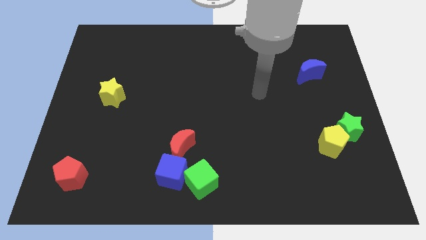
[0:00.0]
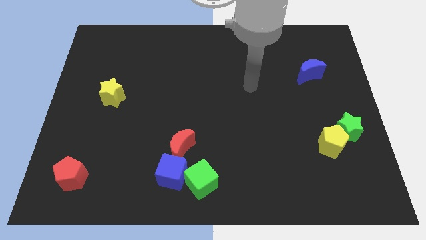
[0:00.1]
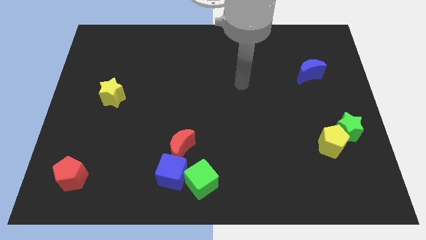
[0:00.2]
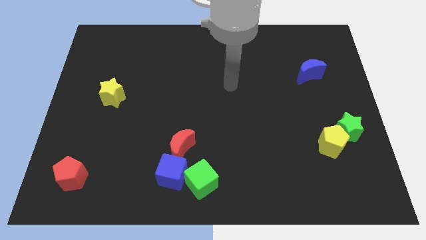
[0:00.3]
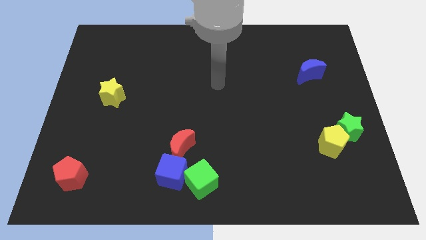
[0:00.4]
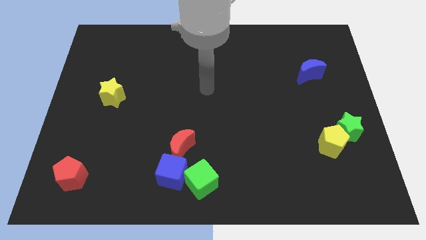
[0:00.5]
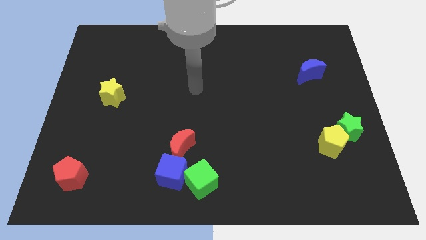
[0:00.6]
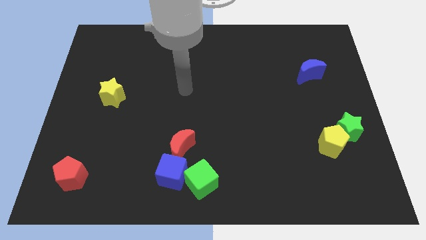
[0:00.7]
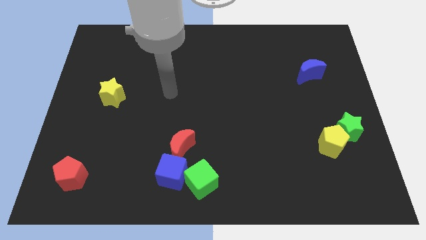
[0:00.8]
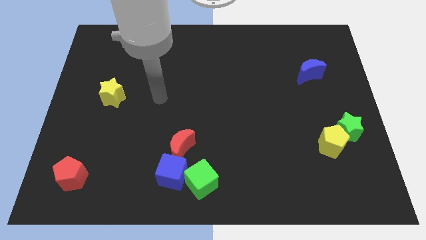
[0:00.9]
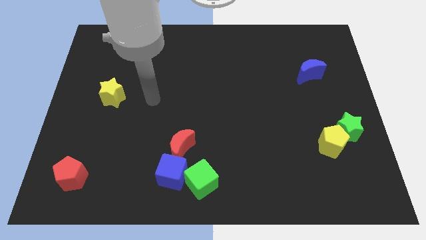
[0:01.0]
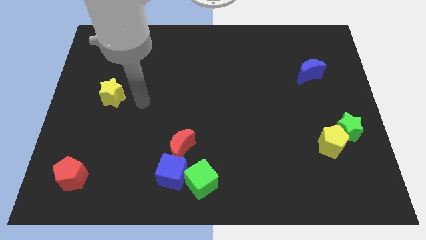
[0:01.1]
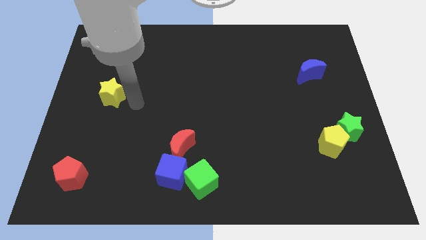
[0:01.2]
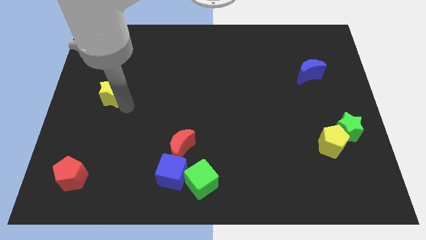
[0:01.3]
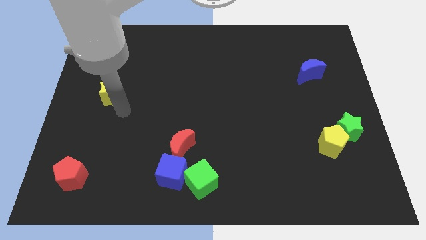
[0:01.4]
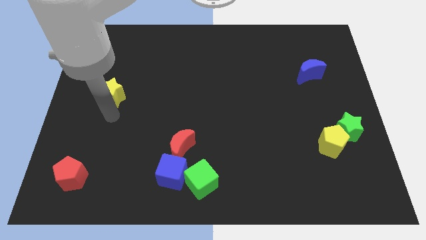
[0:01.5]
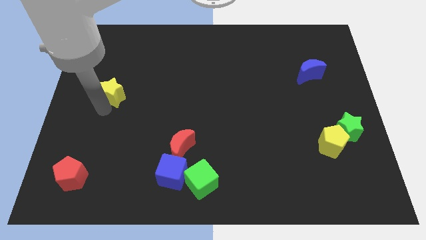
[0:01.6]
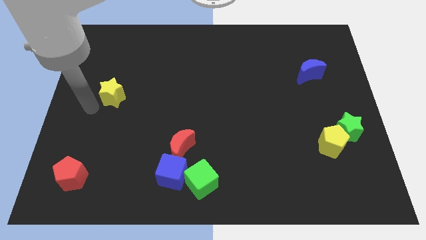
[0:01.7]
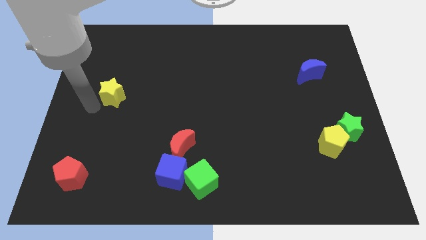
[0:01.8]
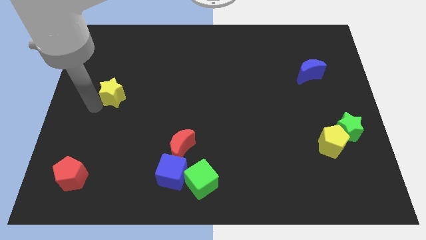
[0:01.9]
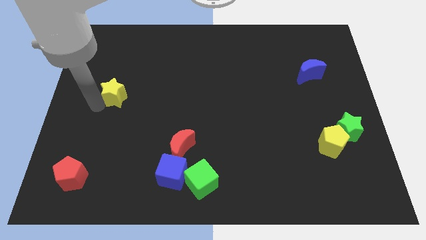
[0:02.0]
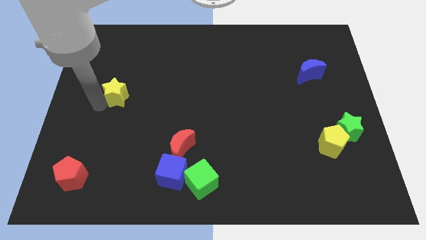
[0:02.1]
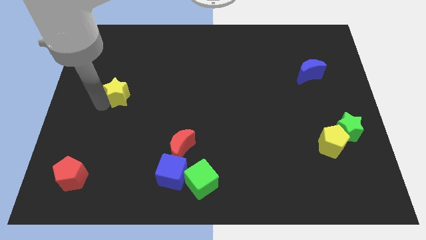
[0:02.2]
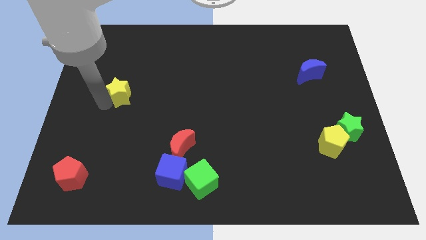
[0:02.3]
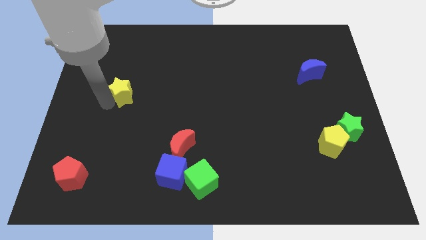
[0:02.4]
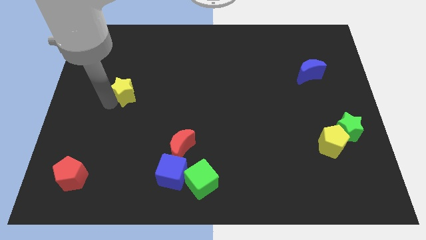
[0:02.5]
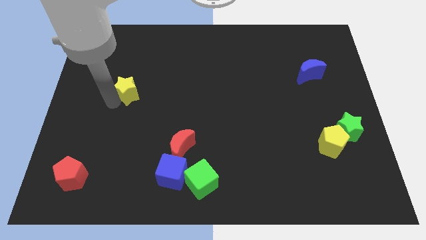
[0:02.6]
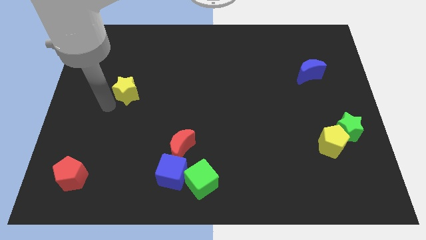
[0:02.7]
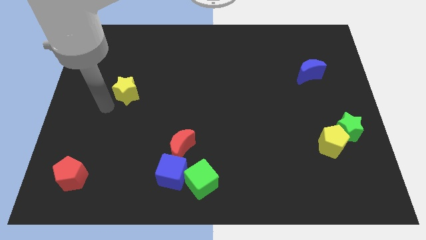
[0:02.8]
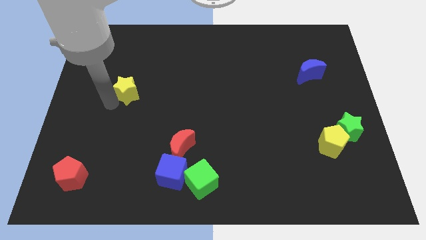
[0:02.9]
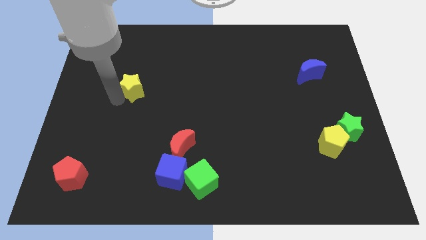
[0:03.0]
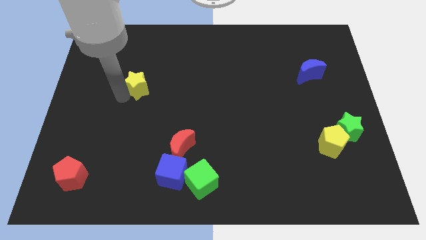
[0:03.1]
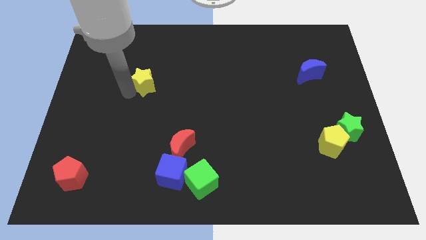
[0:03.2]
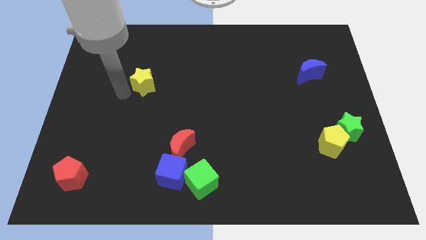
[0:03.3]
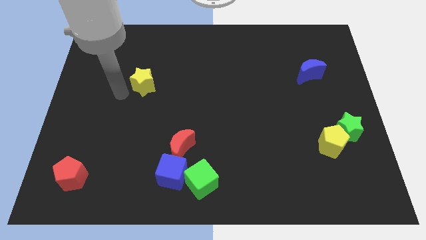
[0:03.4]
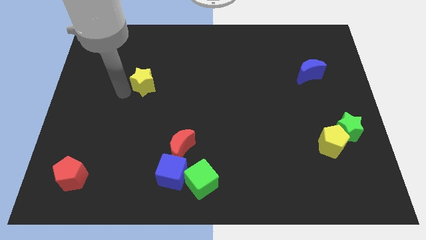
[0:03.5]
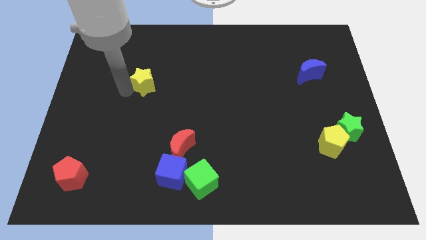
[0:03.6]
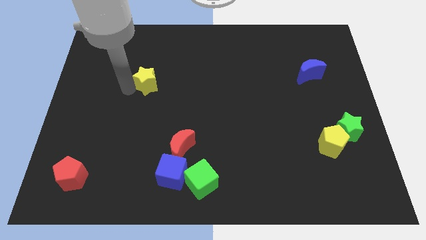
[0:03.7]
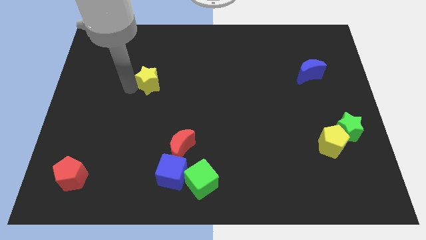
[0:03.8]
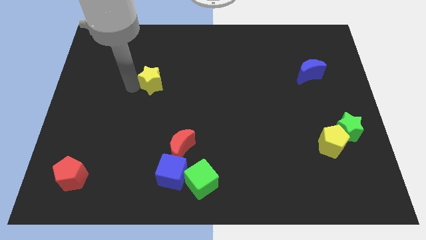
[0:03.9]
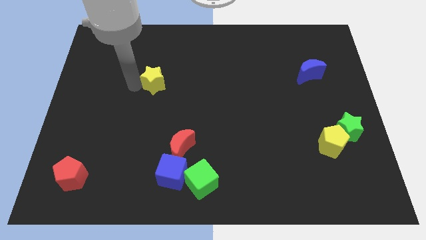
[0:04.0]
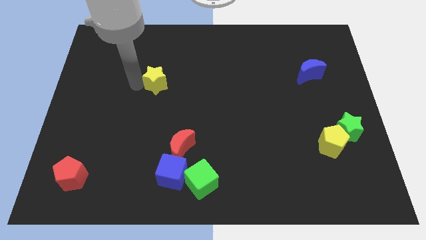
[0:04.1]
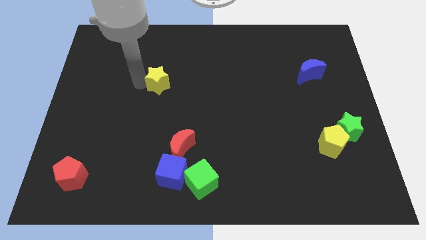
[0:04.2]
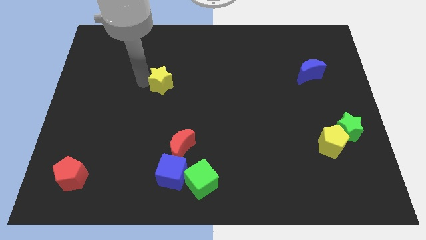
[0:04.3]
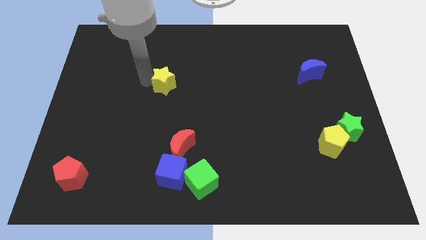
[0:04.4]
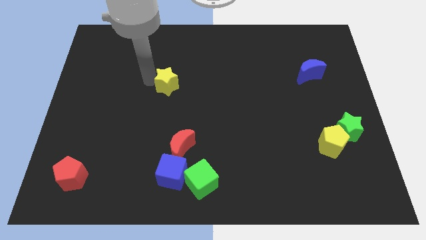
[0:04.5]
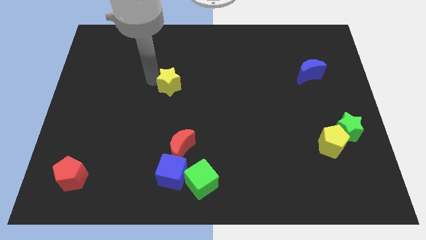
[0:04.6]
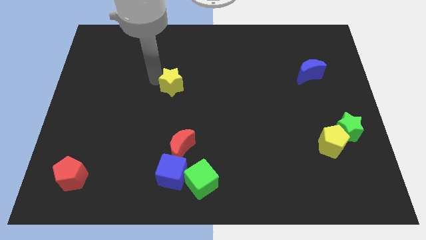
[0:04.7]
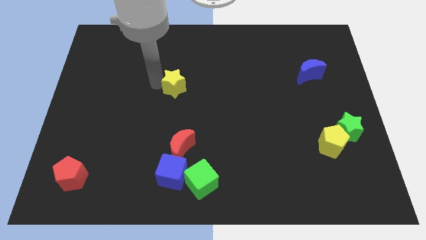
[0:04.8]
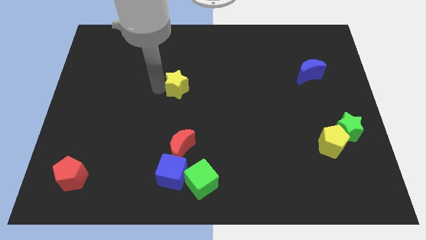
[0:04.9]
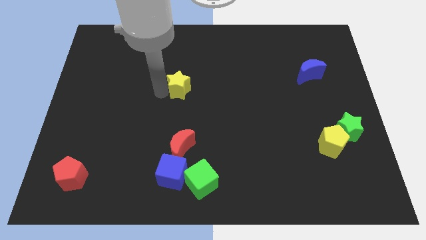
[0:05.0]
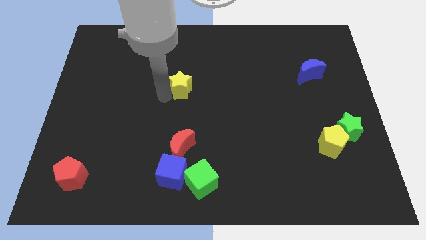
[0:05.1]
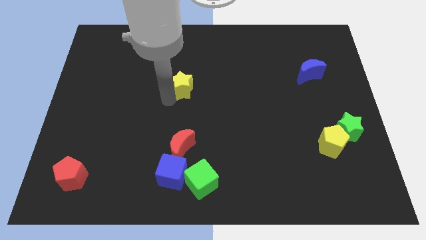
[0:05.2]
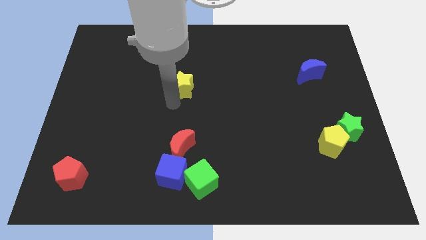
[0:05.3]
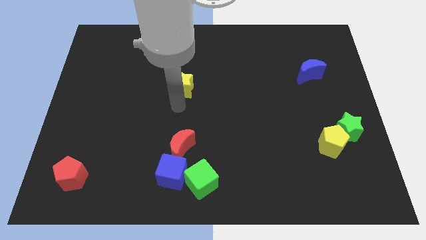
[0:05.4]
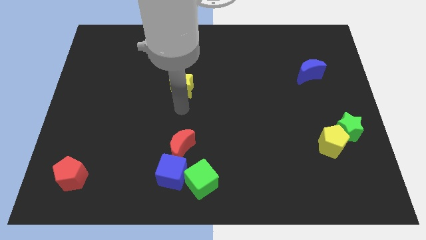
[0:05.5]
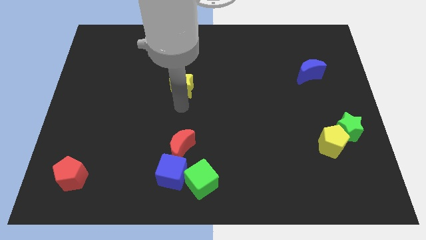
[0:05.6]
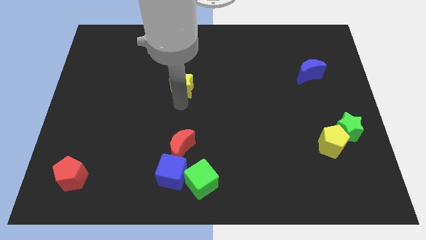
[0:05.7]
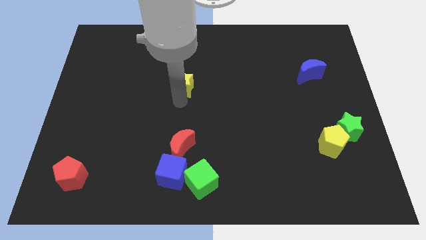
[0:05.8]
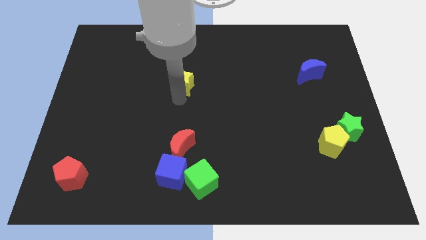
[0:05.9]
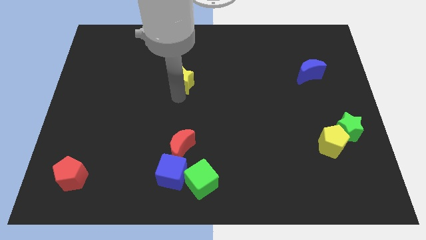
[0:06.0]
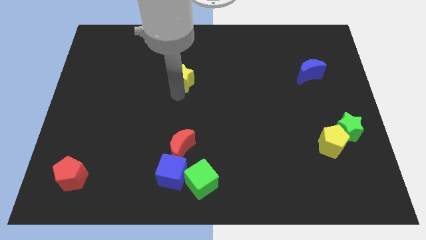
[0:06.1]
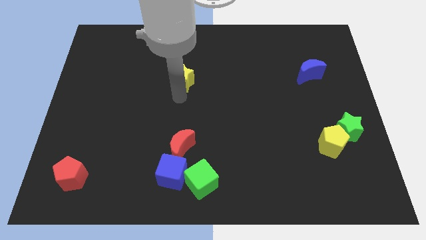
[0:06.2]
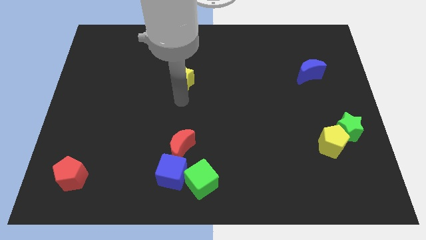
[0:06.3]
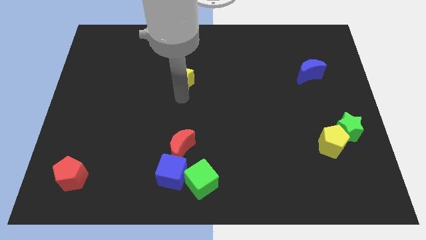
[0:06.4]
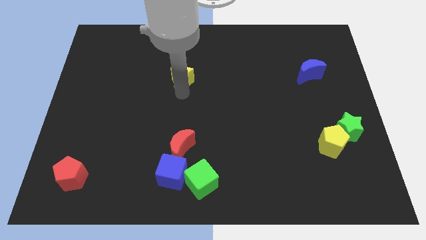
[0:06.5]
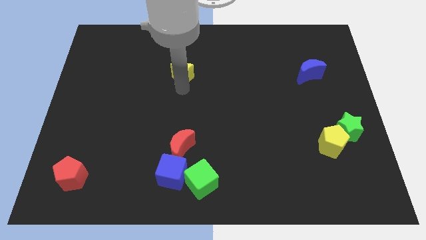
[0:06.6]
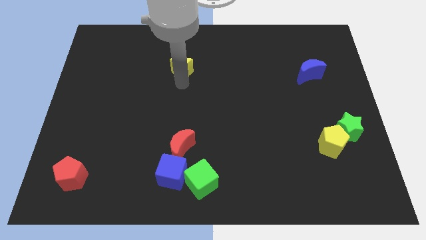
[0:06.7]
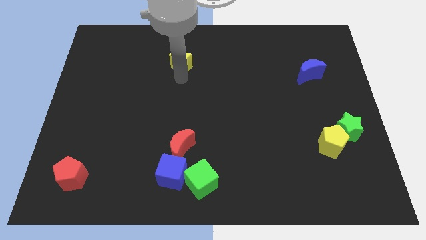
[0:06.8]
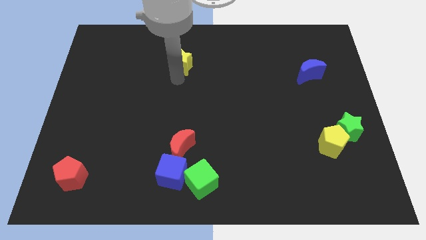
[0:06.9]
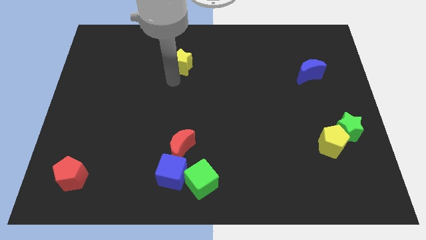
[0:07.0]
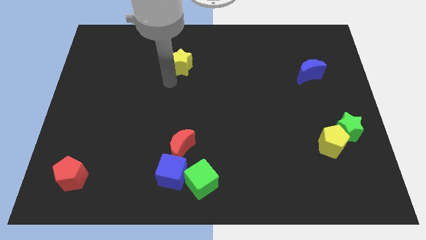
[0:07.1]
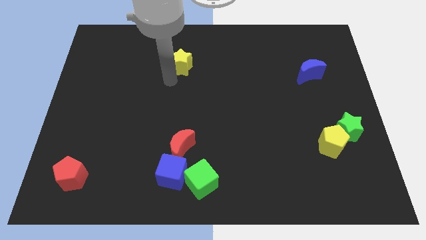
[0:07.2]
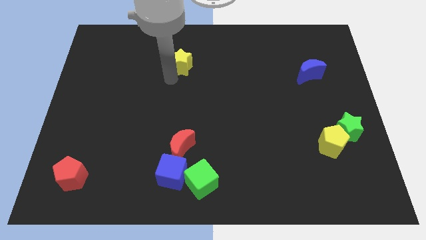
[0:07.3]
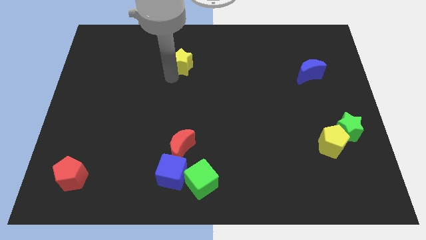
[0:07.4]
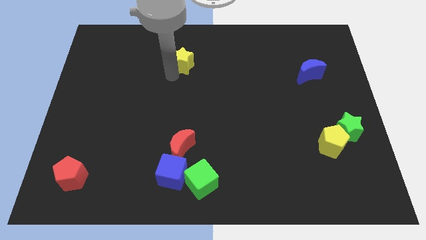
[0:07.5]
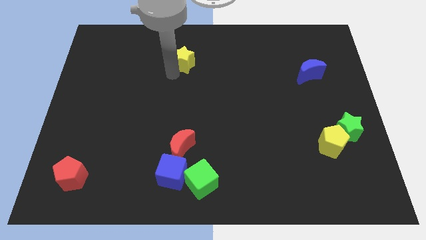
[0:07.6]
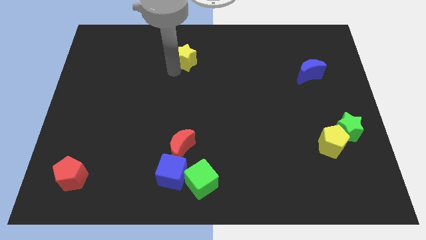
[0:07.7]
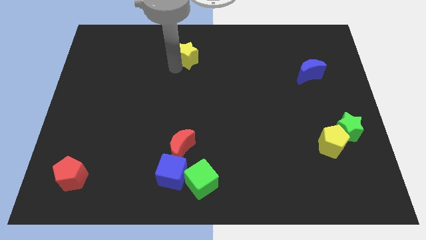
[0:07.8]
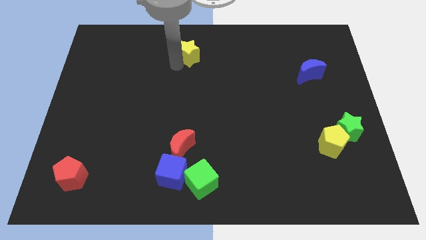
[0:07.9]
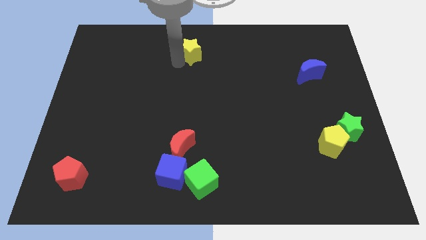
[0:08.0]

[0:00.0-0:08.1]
push the yellow star to the top
